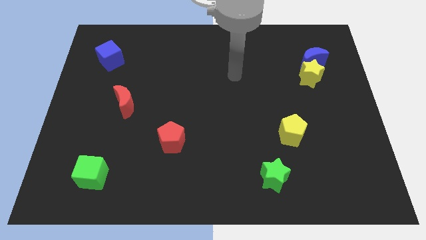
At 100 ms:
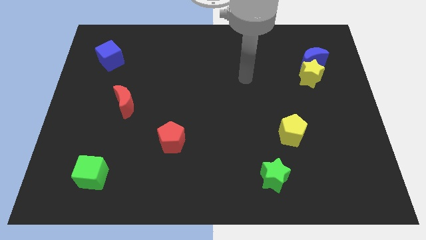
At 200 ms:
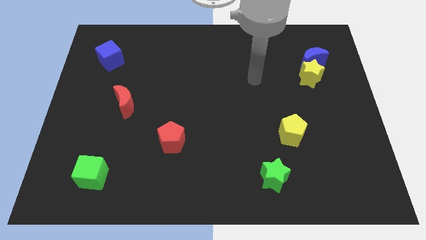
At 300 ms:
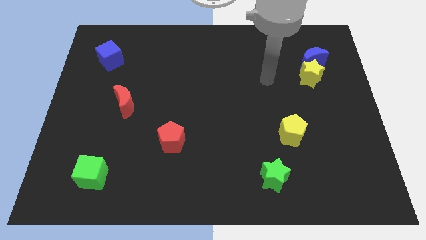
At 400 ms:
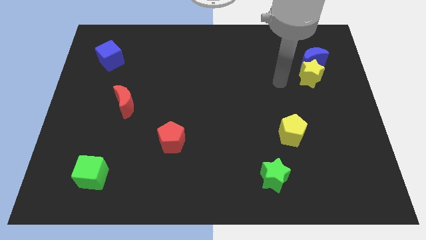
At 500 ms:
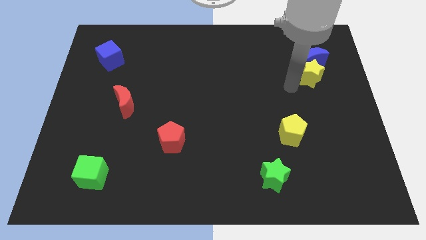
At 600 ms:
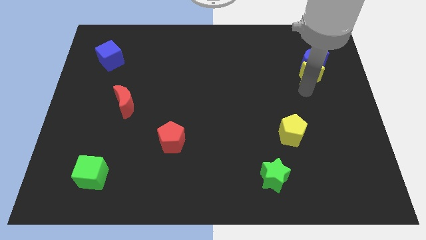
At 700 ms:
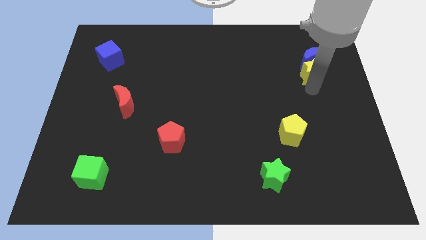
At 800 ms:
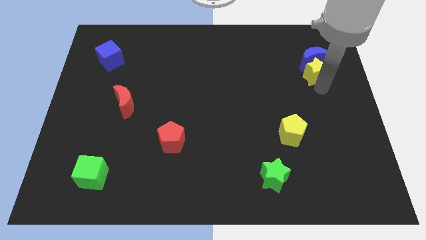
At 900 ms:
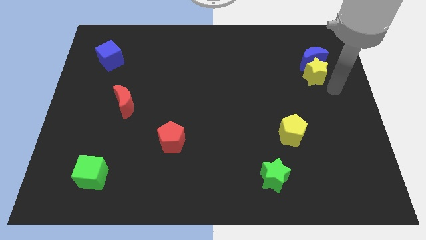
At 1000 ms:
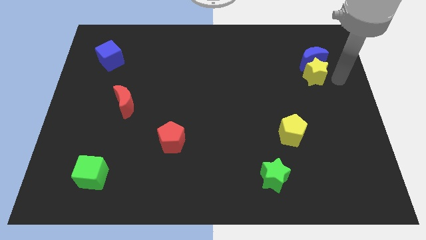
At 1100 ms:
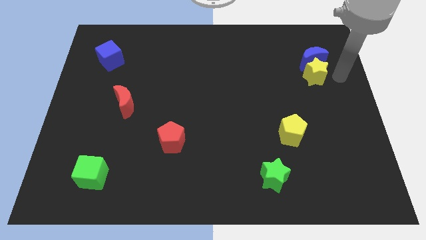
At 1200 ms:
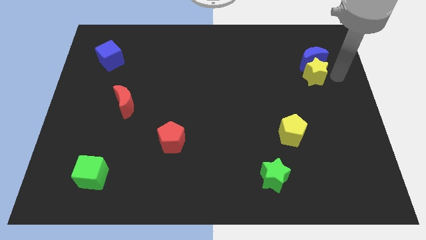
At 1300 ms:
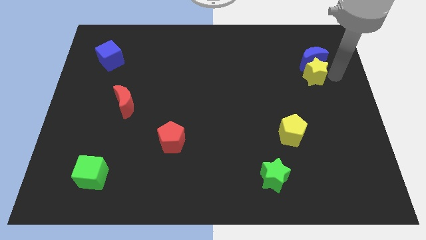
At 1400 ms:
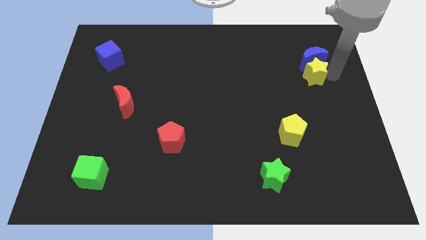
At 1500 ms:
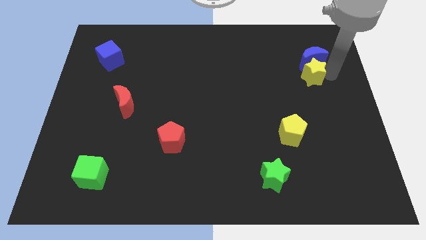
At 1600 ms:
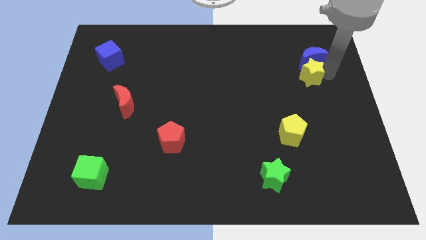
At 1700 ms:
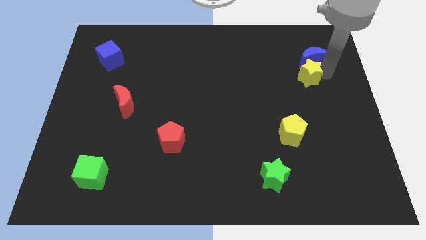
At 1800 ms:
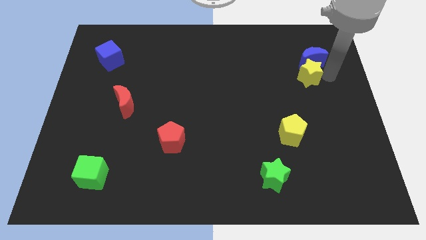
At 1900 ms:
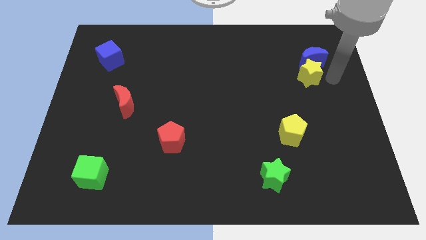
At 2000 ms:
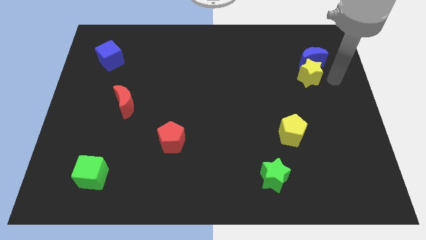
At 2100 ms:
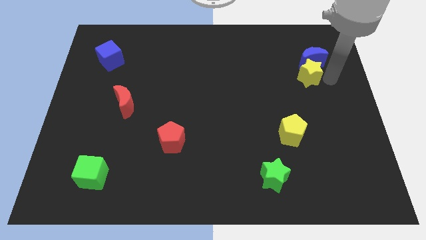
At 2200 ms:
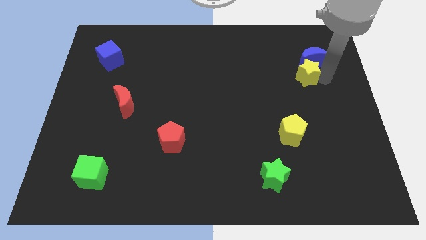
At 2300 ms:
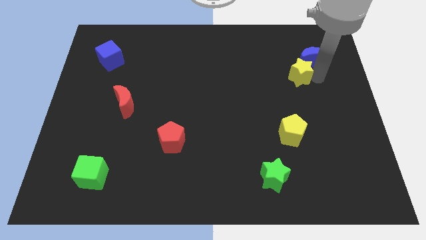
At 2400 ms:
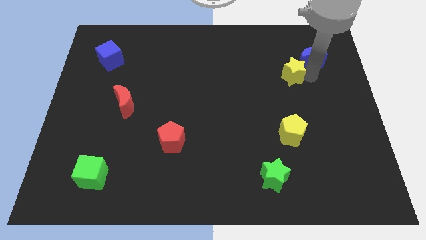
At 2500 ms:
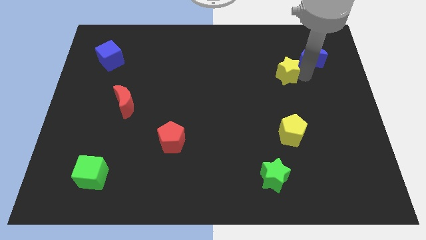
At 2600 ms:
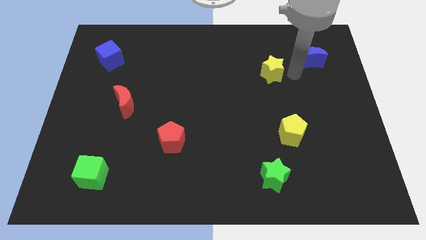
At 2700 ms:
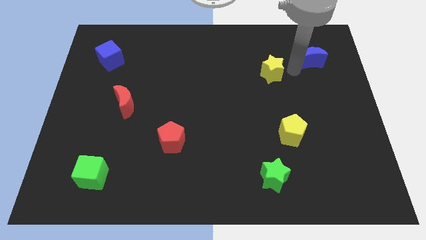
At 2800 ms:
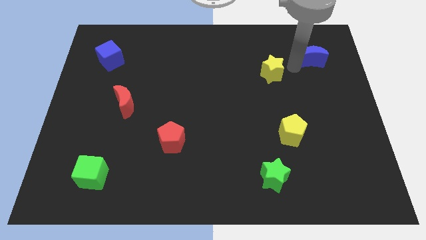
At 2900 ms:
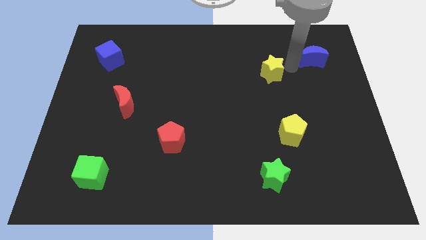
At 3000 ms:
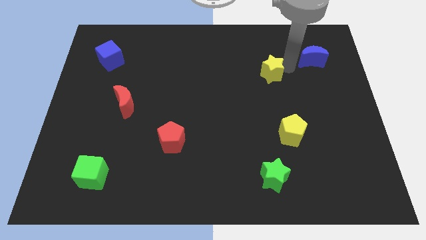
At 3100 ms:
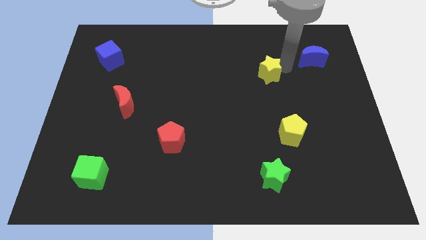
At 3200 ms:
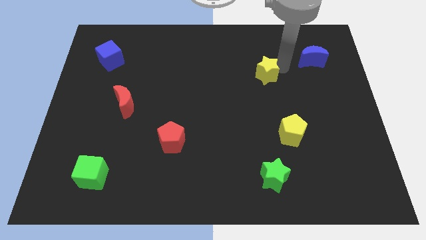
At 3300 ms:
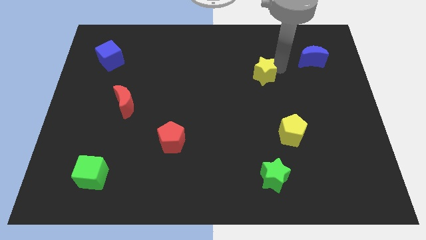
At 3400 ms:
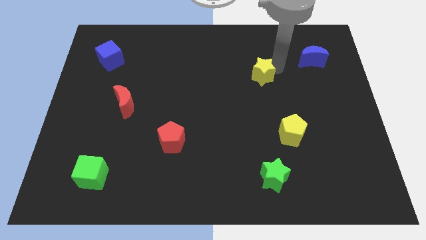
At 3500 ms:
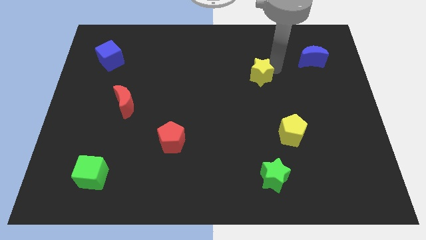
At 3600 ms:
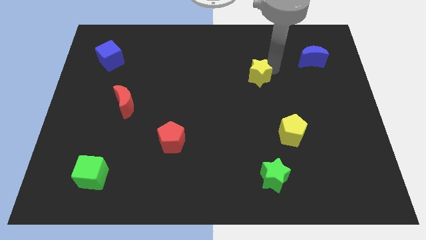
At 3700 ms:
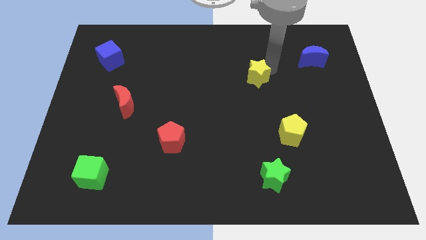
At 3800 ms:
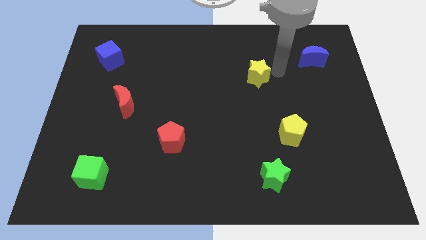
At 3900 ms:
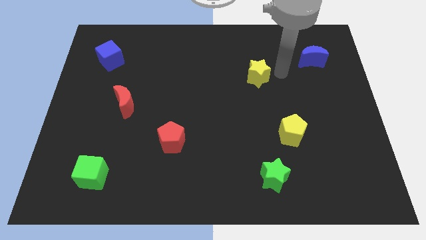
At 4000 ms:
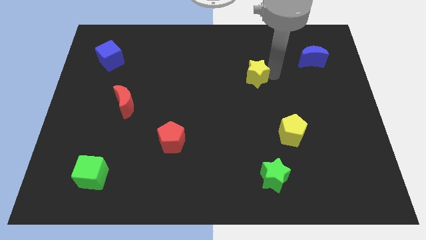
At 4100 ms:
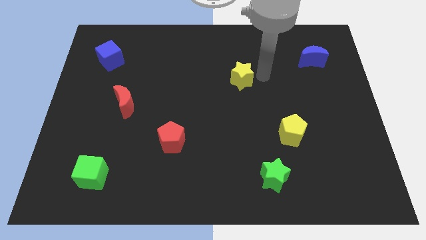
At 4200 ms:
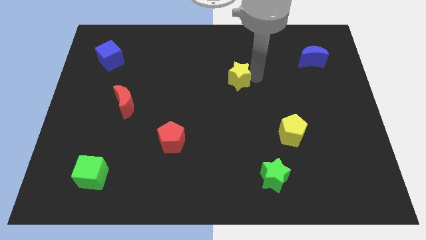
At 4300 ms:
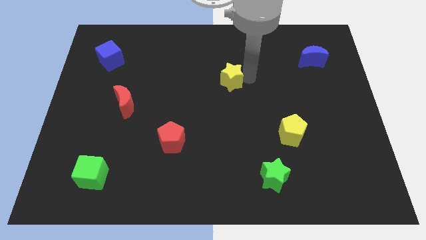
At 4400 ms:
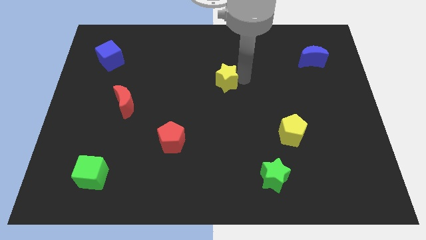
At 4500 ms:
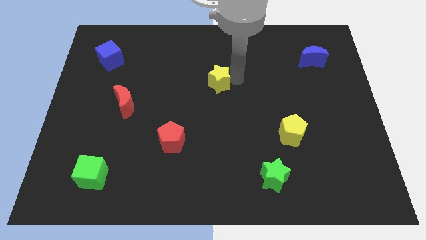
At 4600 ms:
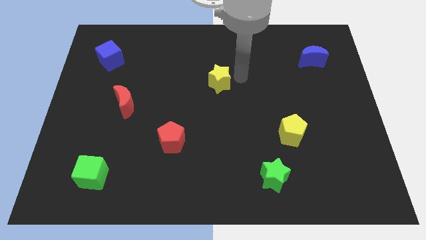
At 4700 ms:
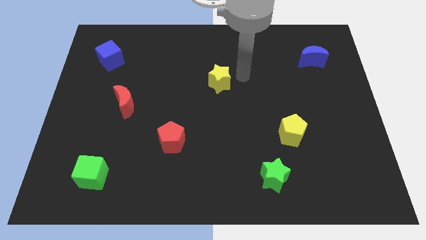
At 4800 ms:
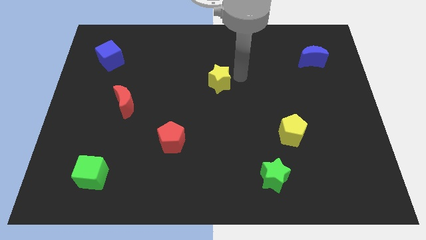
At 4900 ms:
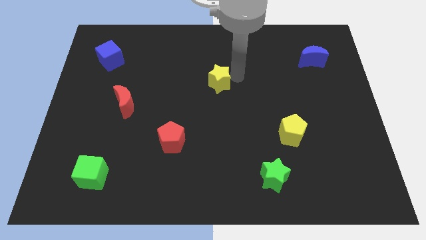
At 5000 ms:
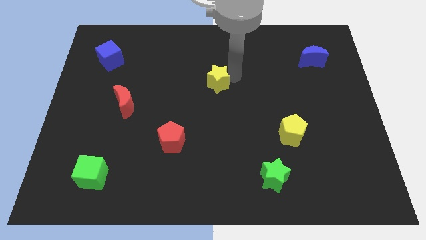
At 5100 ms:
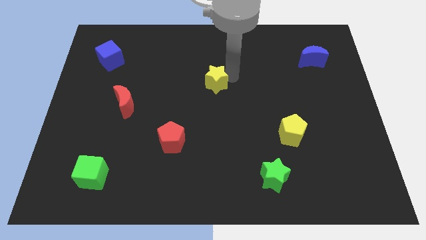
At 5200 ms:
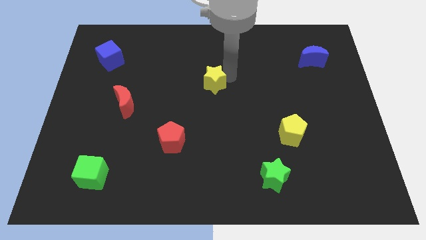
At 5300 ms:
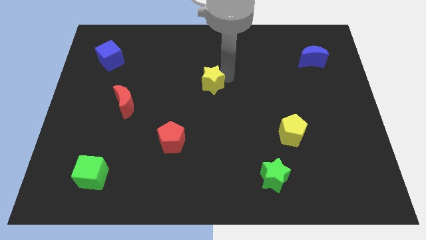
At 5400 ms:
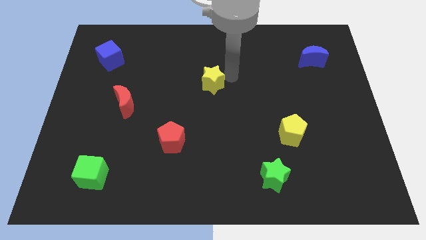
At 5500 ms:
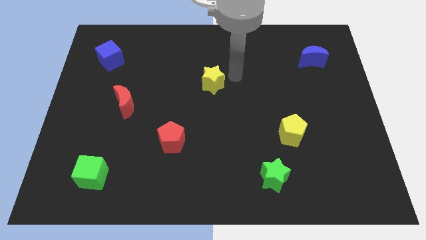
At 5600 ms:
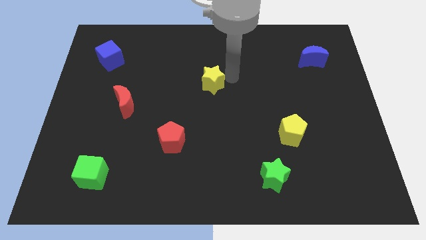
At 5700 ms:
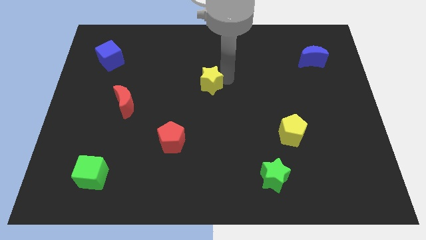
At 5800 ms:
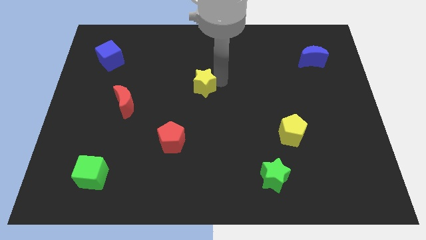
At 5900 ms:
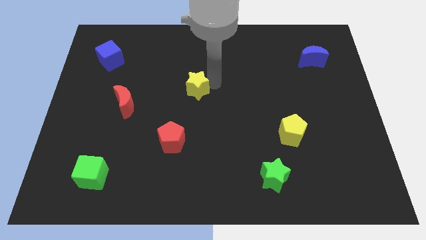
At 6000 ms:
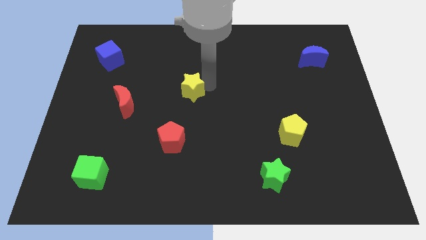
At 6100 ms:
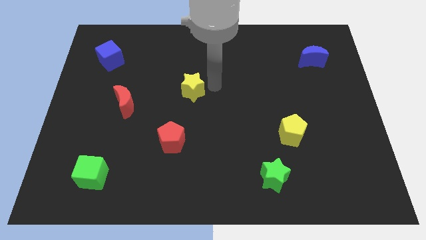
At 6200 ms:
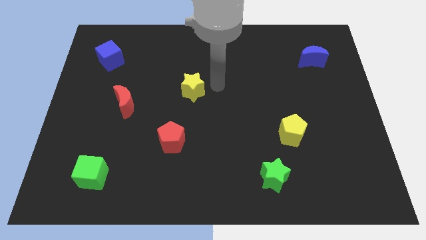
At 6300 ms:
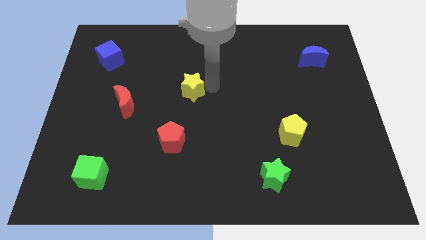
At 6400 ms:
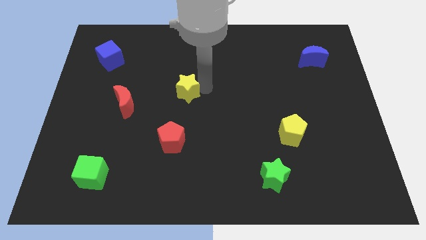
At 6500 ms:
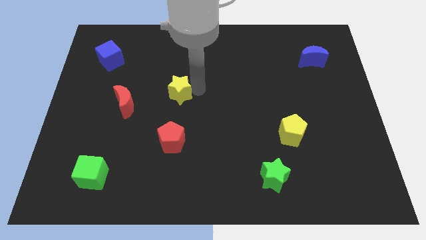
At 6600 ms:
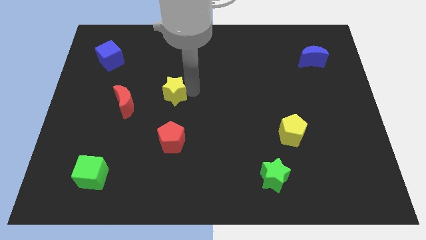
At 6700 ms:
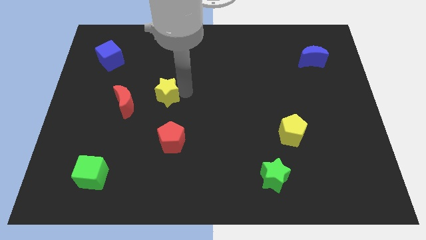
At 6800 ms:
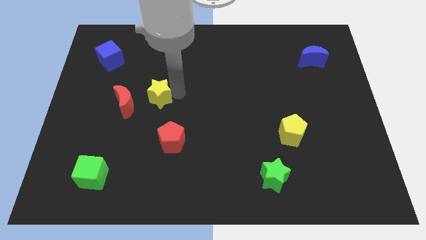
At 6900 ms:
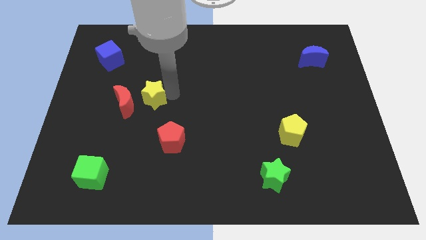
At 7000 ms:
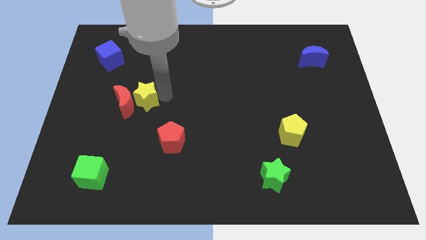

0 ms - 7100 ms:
move the yellow star next to the red moon

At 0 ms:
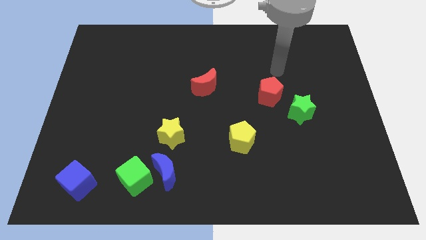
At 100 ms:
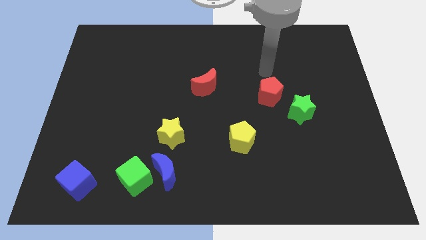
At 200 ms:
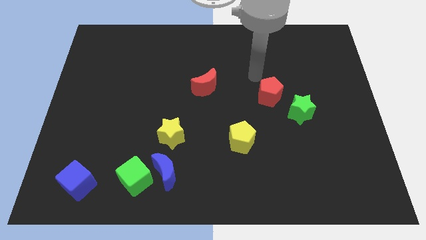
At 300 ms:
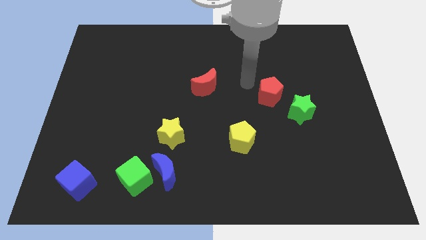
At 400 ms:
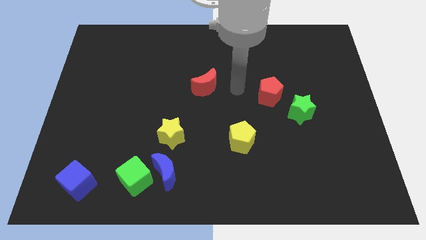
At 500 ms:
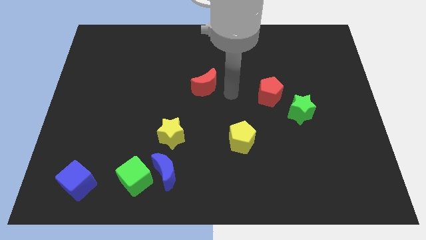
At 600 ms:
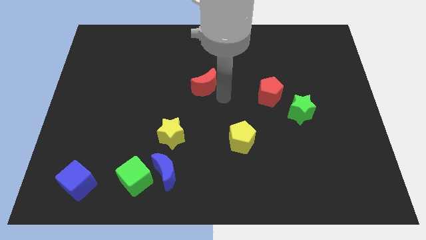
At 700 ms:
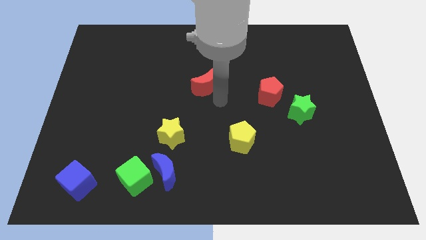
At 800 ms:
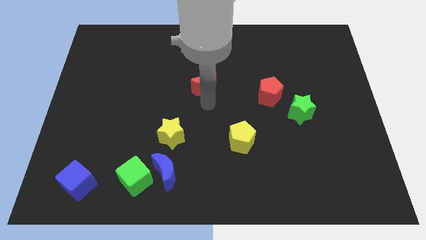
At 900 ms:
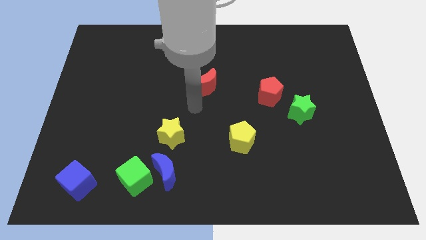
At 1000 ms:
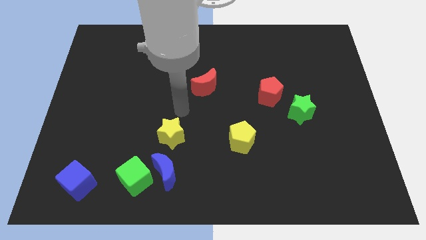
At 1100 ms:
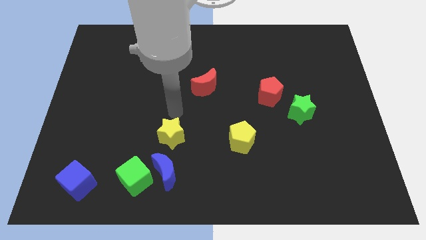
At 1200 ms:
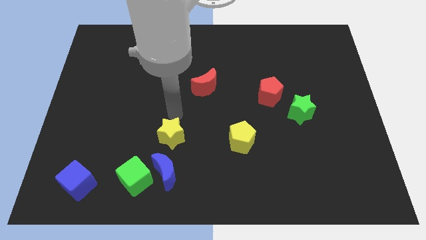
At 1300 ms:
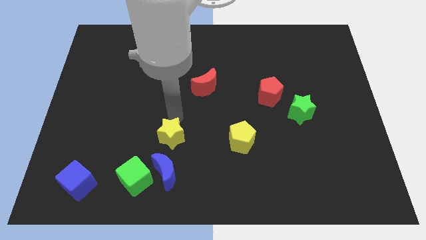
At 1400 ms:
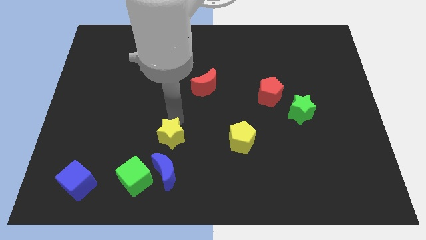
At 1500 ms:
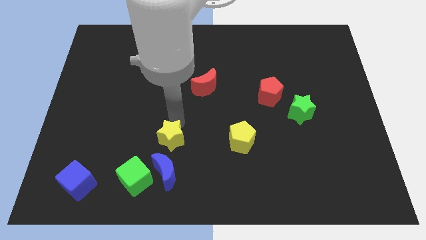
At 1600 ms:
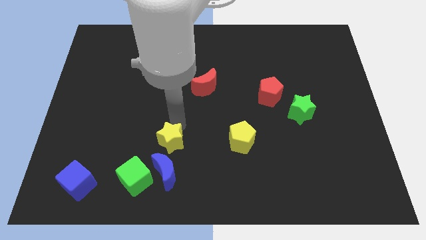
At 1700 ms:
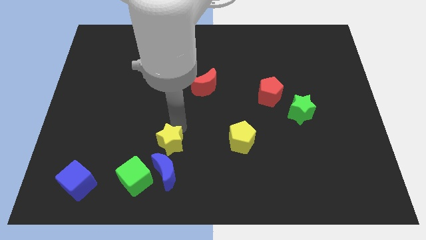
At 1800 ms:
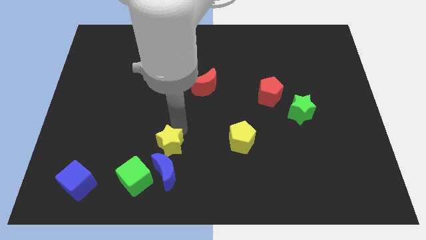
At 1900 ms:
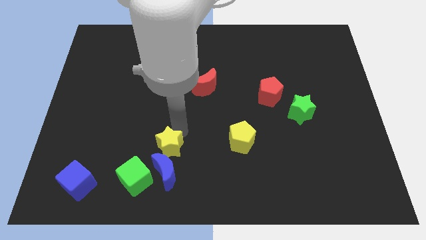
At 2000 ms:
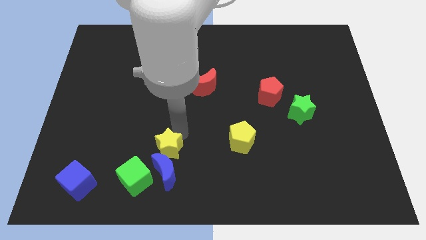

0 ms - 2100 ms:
put the yellow star towards the blue moon
